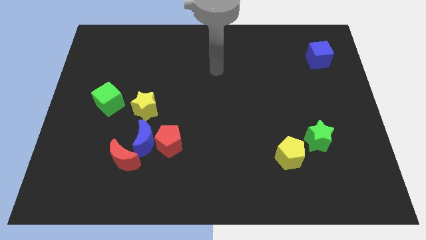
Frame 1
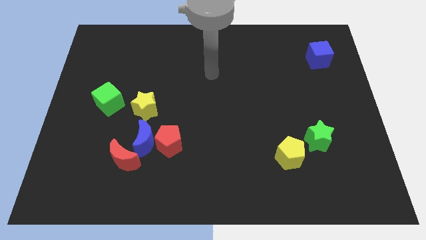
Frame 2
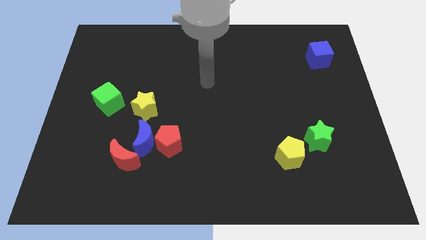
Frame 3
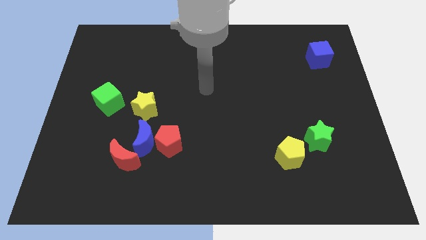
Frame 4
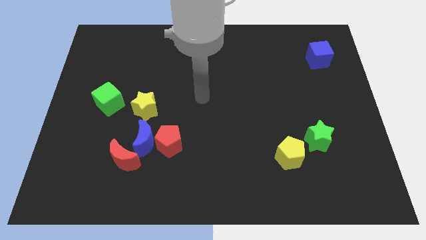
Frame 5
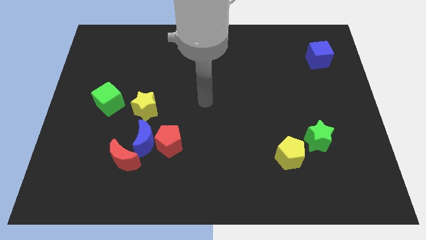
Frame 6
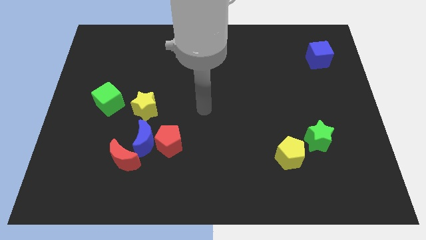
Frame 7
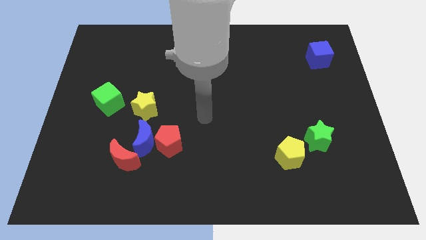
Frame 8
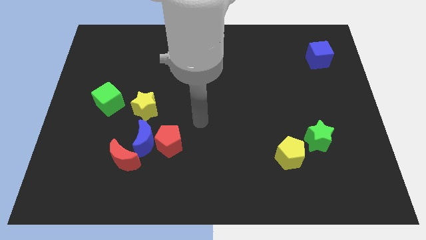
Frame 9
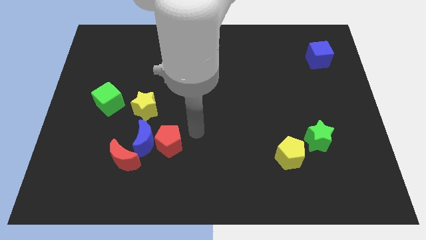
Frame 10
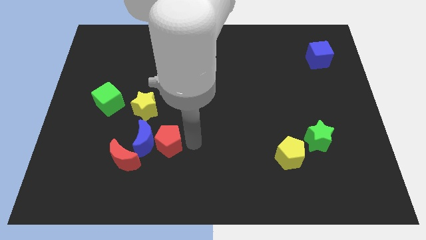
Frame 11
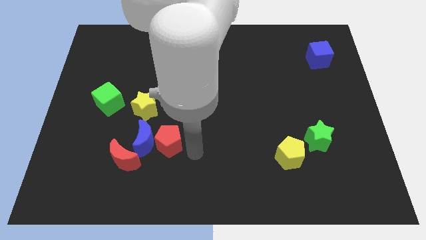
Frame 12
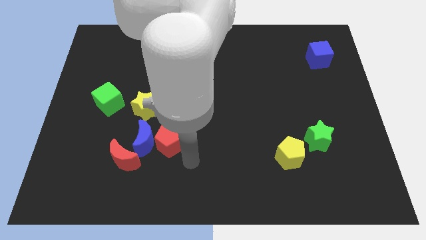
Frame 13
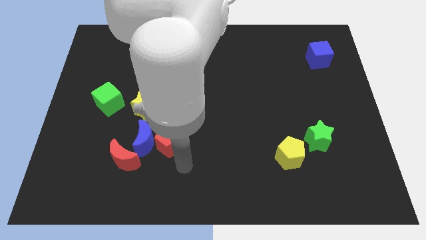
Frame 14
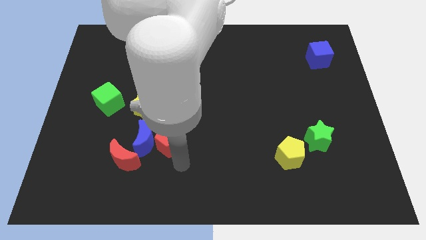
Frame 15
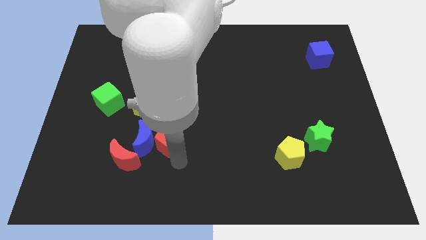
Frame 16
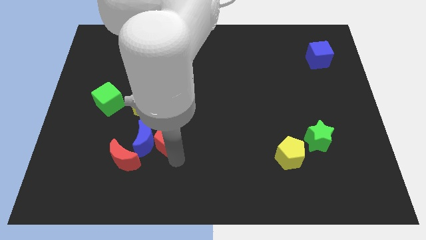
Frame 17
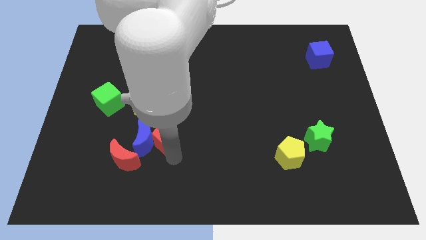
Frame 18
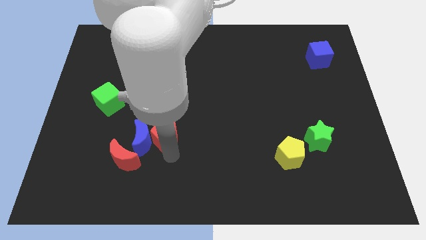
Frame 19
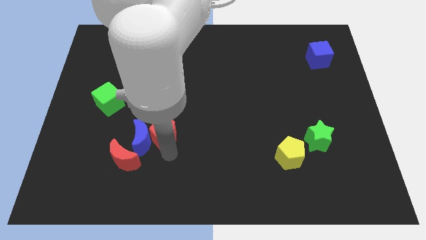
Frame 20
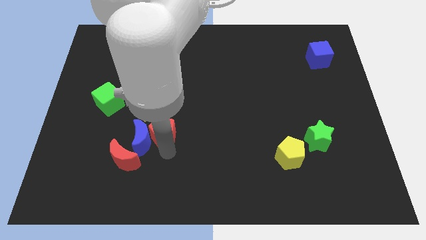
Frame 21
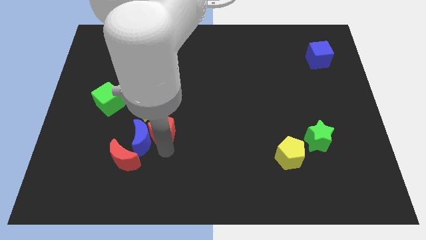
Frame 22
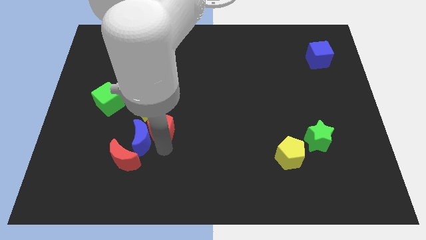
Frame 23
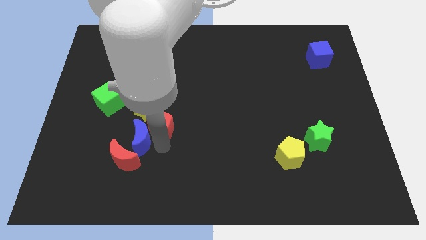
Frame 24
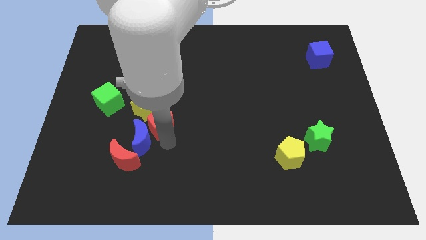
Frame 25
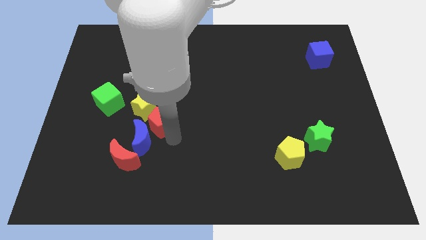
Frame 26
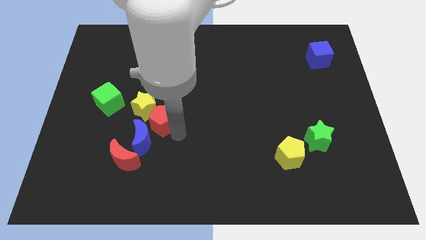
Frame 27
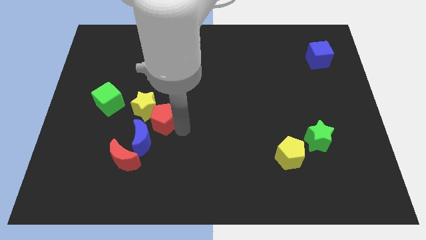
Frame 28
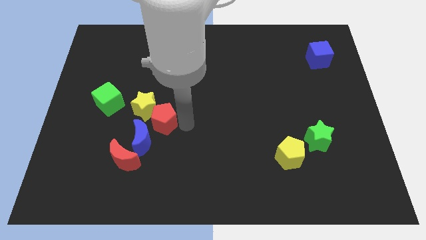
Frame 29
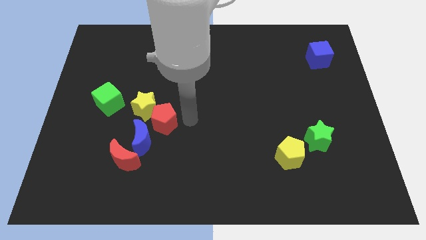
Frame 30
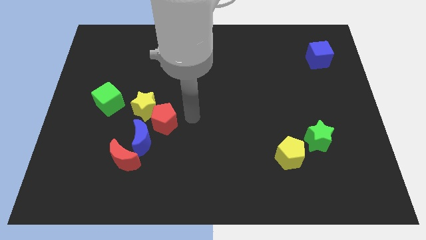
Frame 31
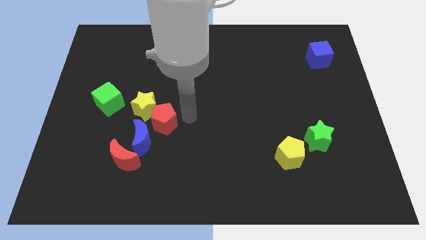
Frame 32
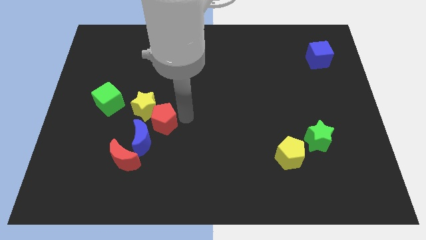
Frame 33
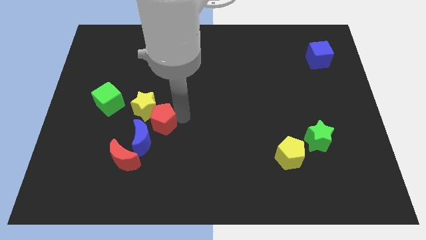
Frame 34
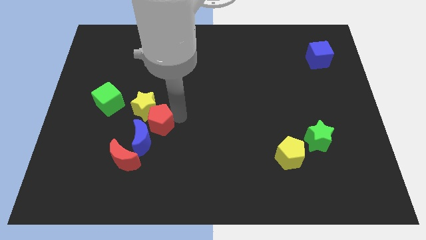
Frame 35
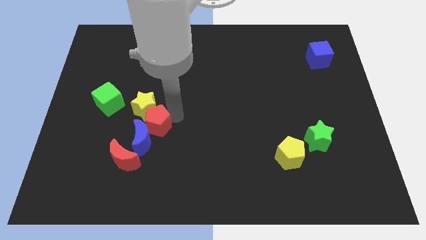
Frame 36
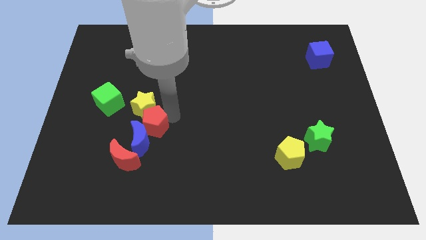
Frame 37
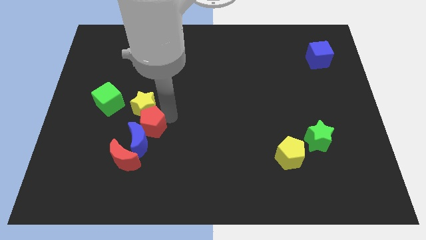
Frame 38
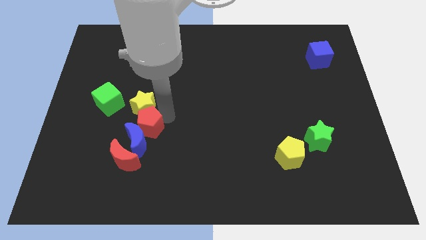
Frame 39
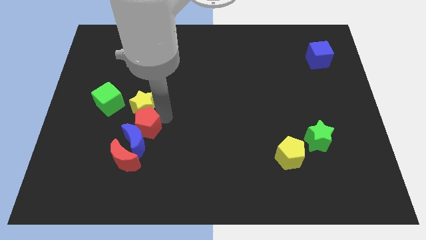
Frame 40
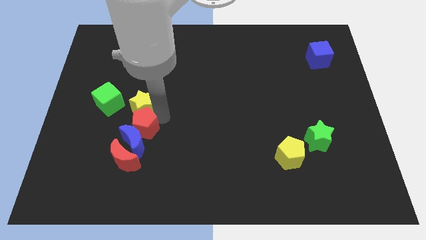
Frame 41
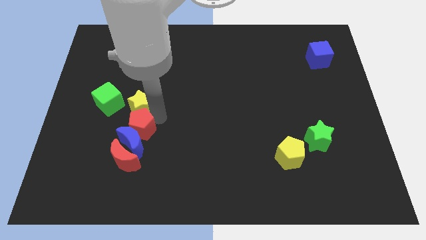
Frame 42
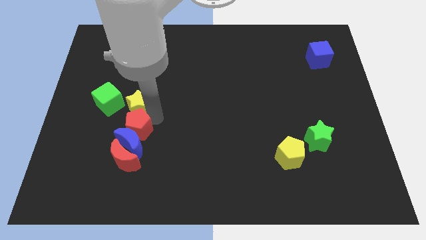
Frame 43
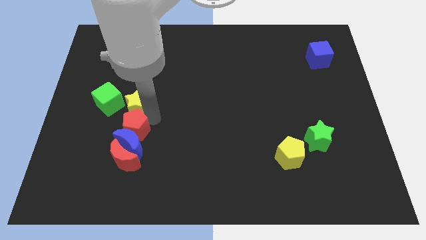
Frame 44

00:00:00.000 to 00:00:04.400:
slightly slide the red pentagon left

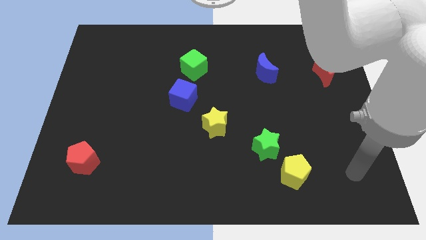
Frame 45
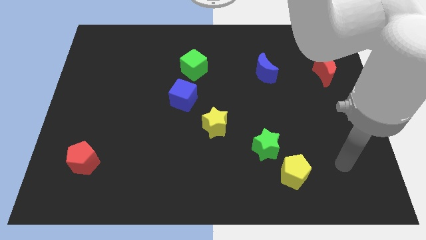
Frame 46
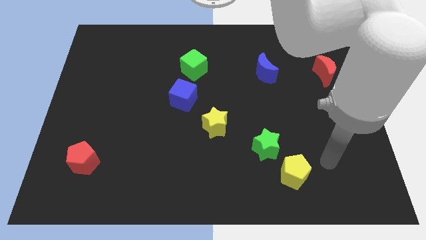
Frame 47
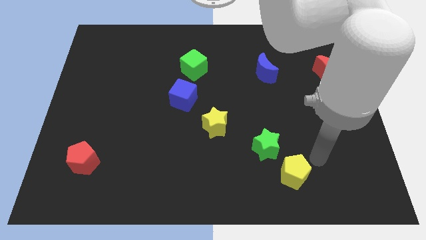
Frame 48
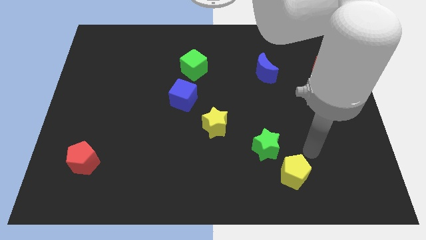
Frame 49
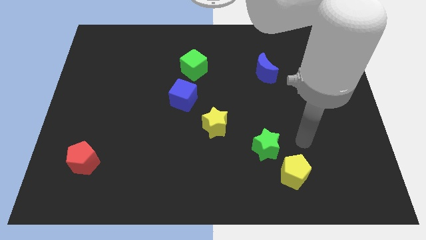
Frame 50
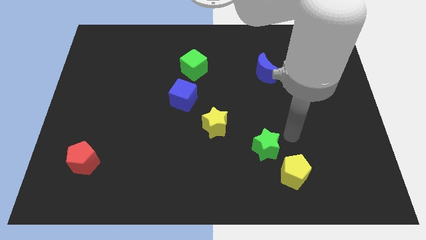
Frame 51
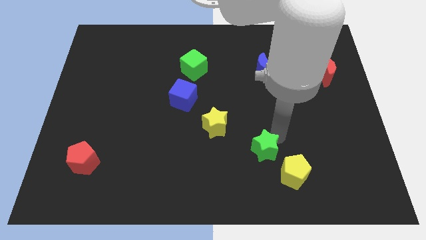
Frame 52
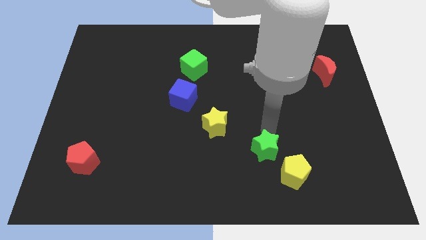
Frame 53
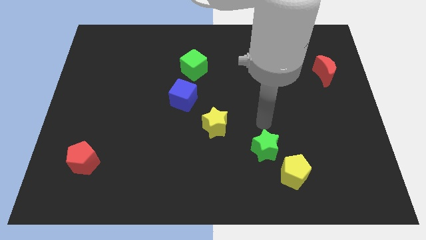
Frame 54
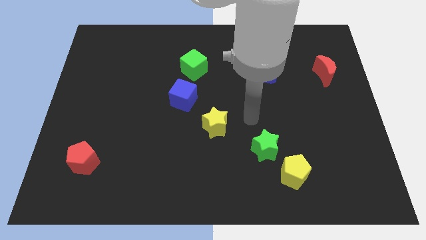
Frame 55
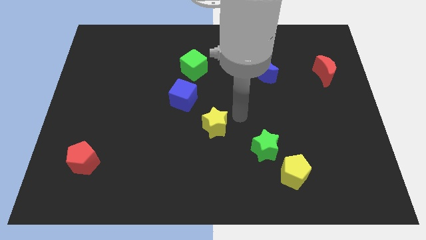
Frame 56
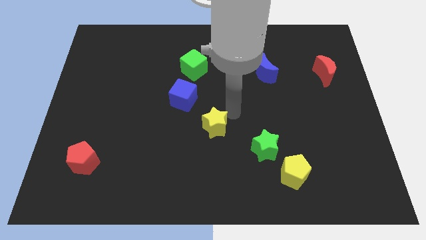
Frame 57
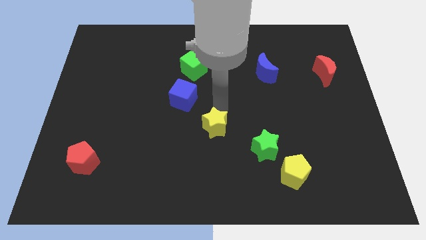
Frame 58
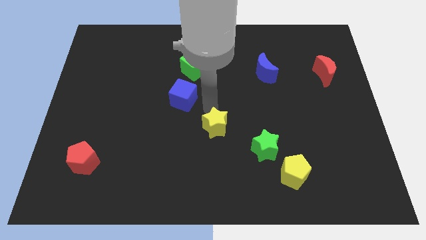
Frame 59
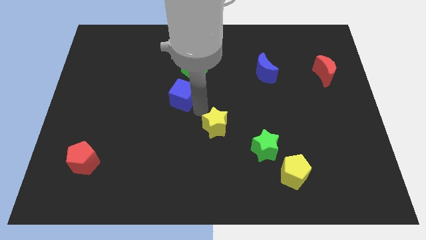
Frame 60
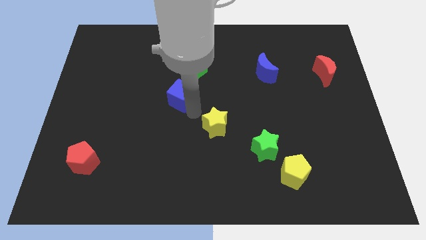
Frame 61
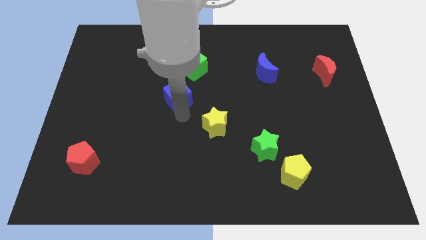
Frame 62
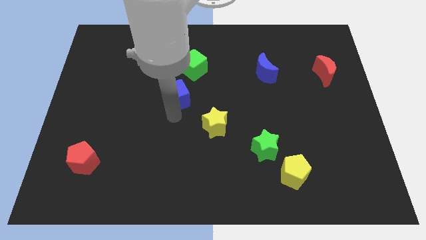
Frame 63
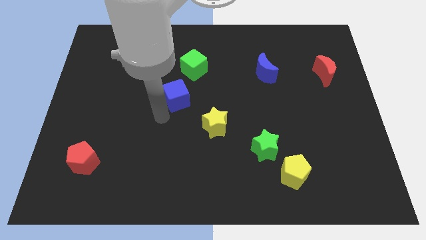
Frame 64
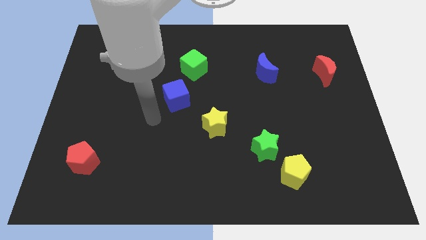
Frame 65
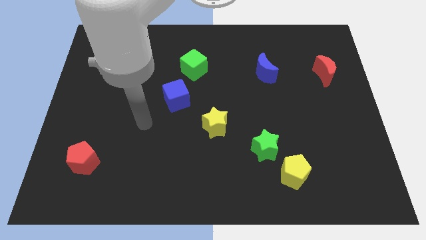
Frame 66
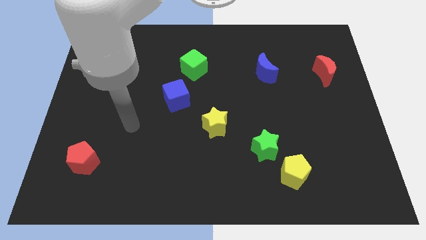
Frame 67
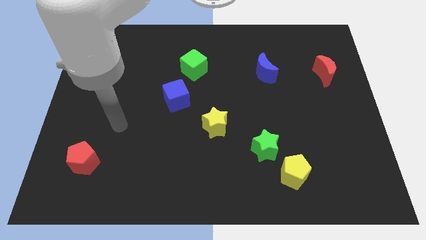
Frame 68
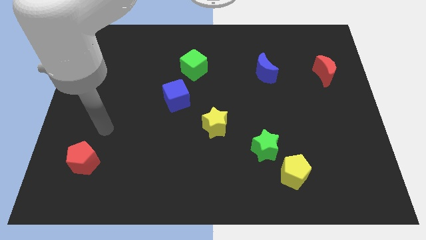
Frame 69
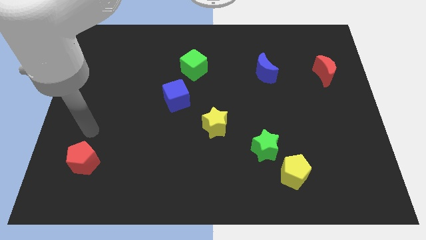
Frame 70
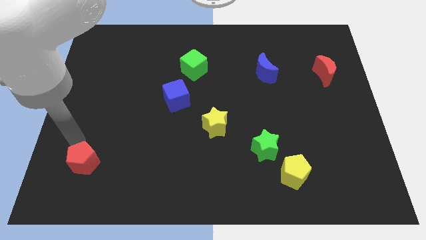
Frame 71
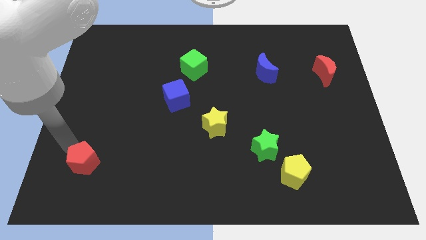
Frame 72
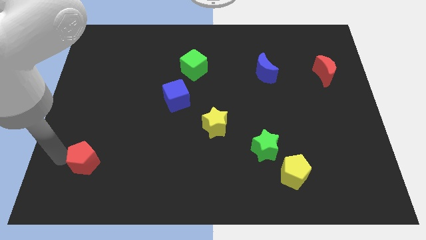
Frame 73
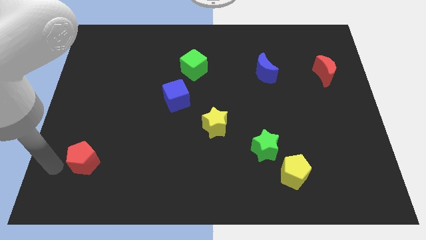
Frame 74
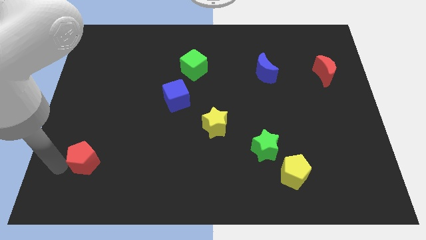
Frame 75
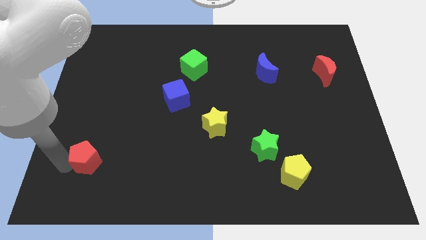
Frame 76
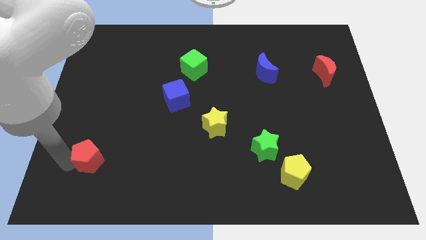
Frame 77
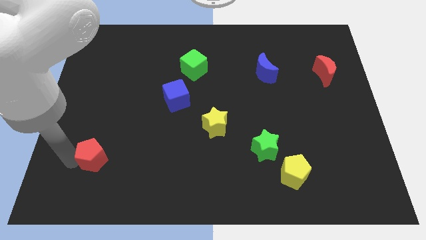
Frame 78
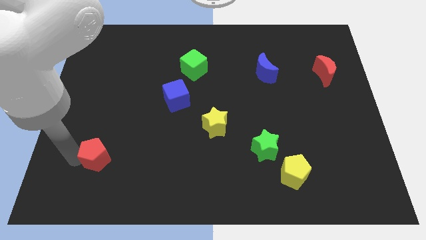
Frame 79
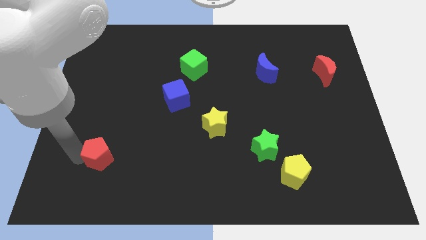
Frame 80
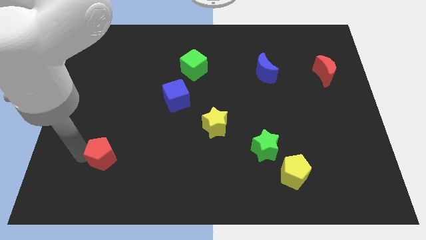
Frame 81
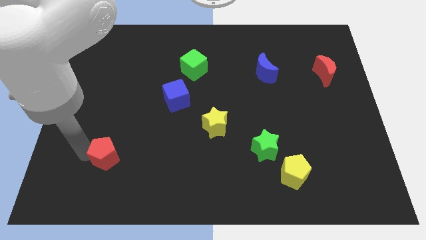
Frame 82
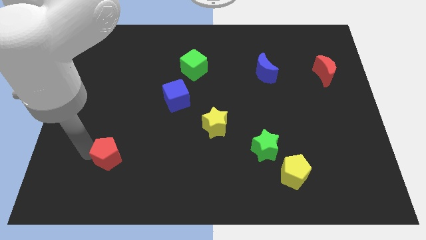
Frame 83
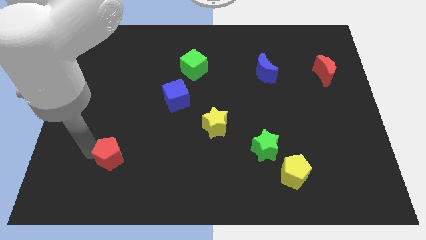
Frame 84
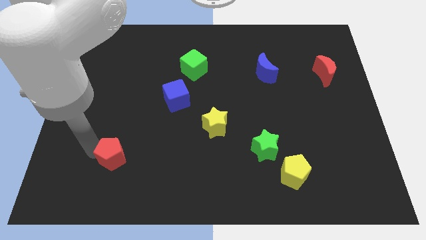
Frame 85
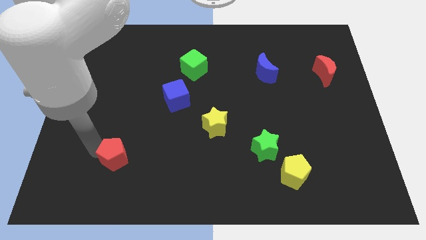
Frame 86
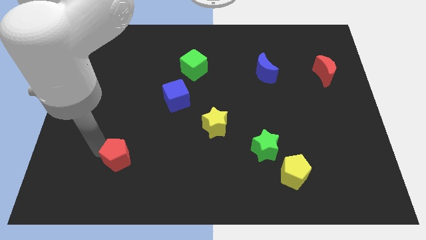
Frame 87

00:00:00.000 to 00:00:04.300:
push the red pentagon to the right a little bit
